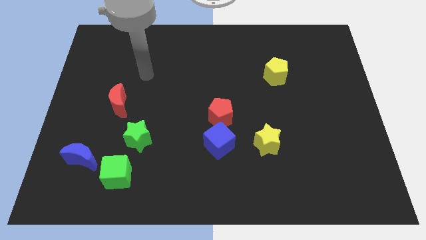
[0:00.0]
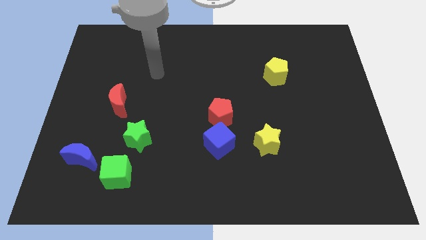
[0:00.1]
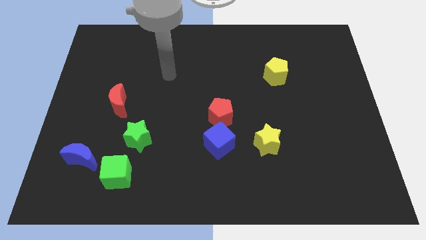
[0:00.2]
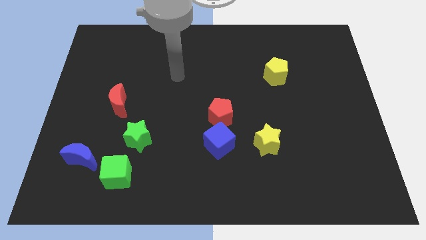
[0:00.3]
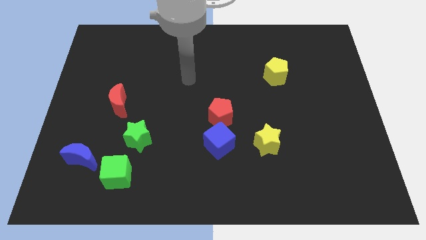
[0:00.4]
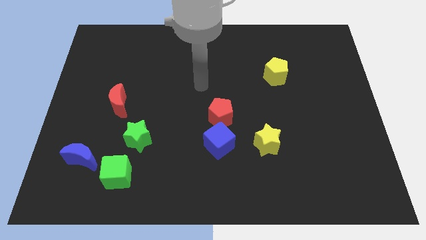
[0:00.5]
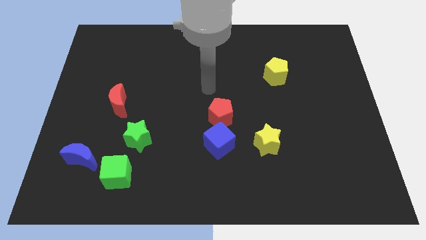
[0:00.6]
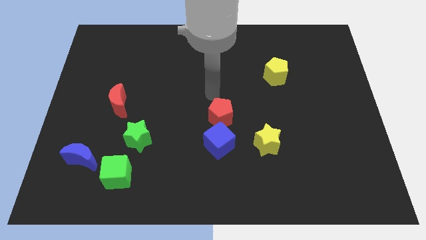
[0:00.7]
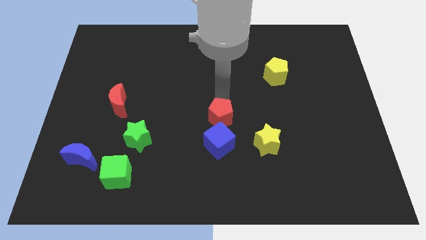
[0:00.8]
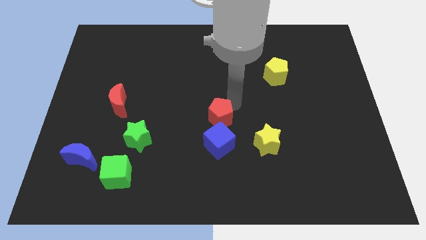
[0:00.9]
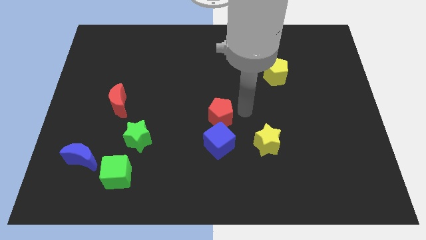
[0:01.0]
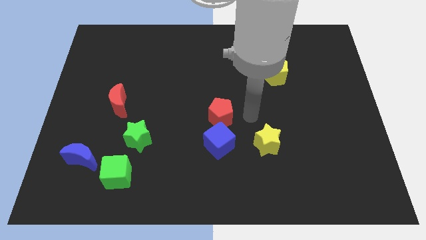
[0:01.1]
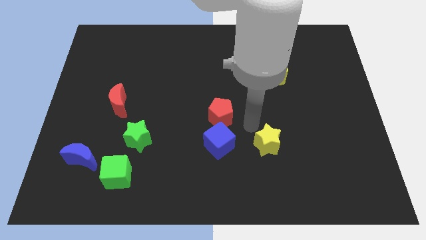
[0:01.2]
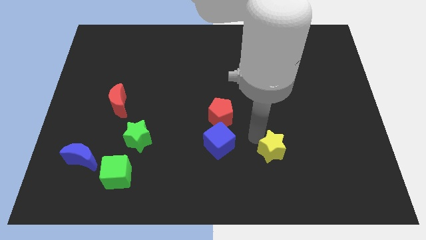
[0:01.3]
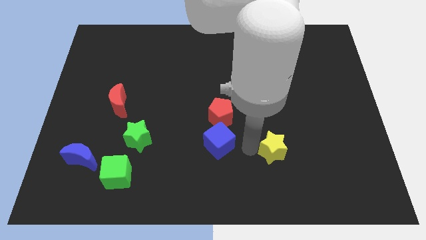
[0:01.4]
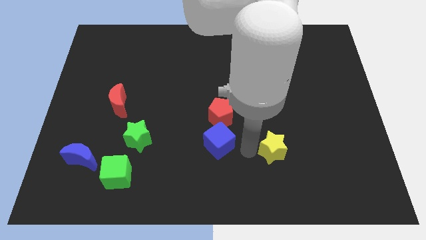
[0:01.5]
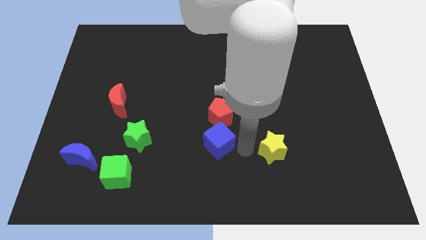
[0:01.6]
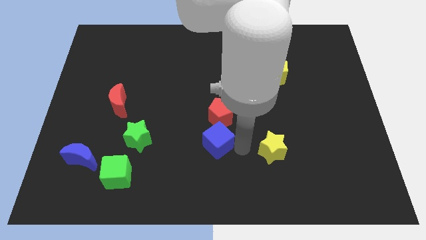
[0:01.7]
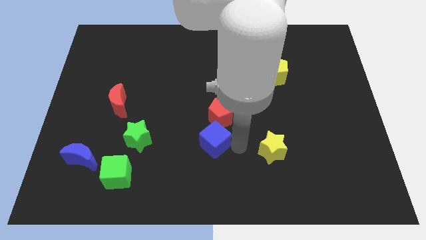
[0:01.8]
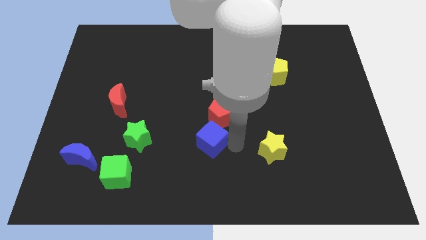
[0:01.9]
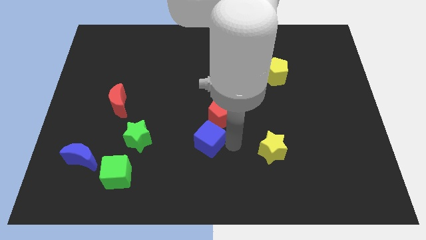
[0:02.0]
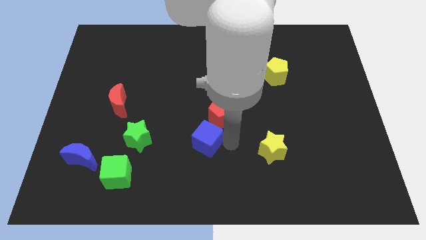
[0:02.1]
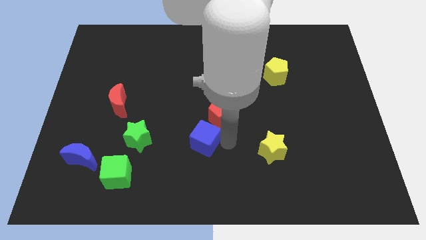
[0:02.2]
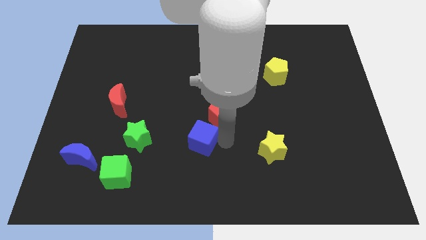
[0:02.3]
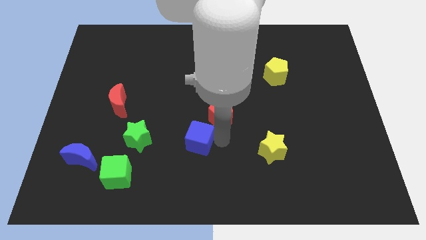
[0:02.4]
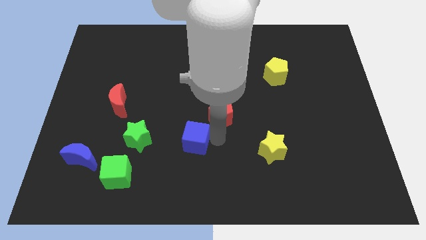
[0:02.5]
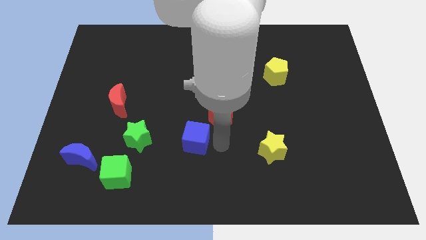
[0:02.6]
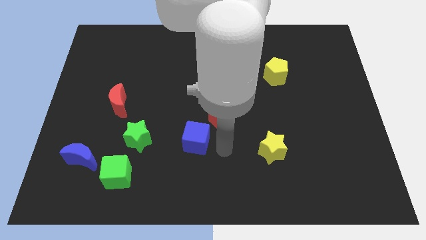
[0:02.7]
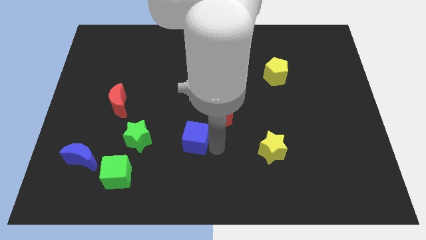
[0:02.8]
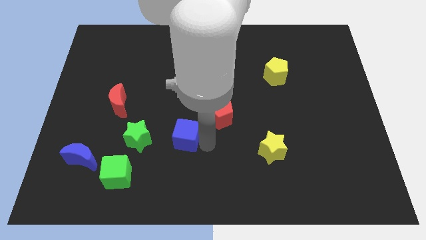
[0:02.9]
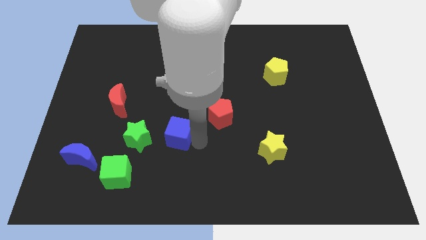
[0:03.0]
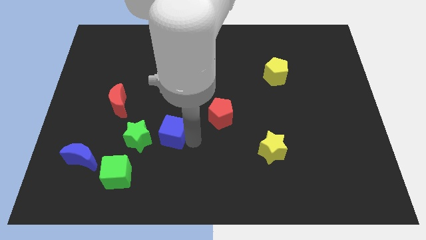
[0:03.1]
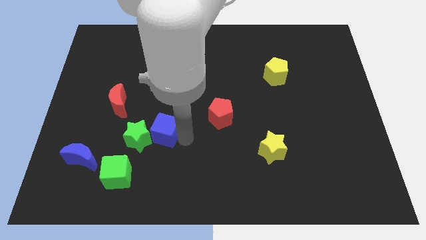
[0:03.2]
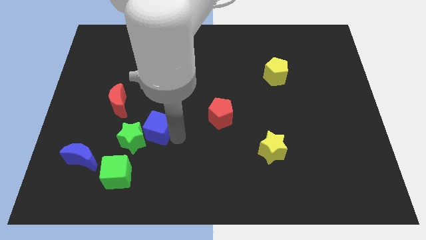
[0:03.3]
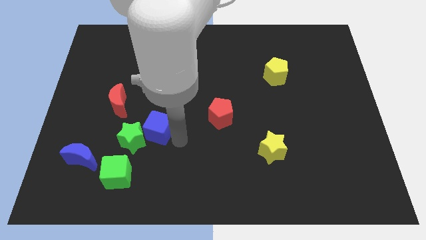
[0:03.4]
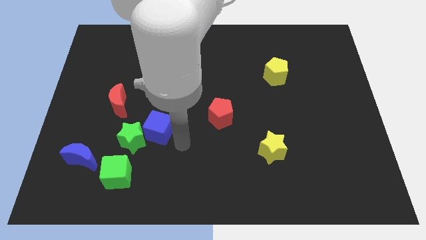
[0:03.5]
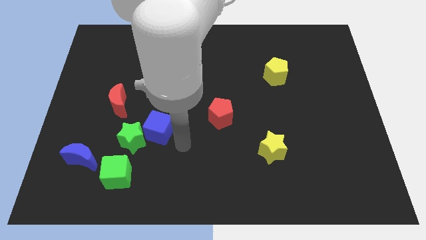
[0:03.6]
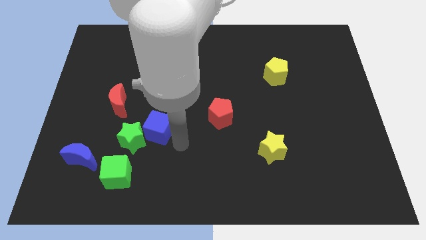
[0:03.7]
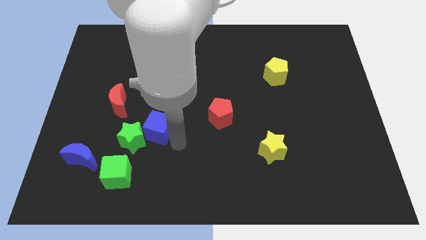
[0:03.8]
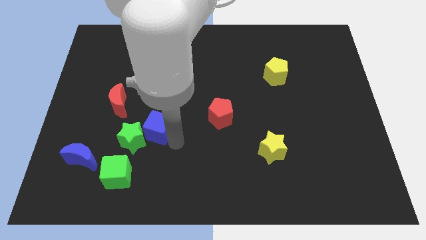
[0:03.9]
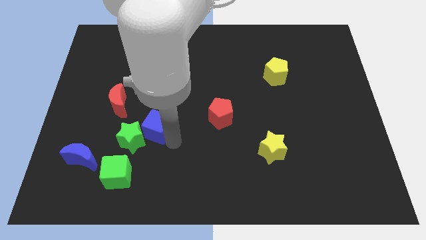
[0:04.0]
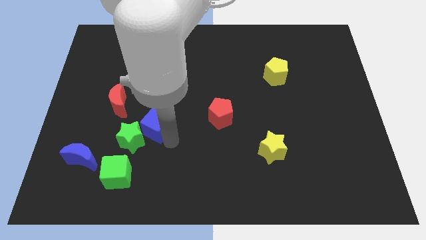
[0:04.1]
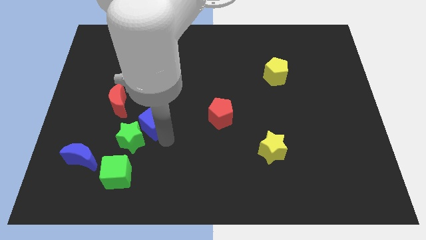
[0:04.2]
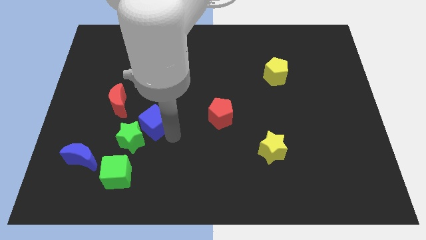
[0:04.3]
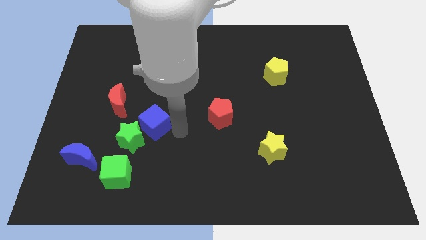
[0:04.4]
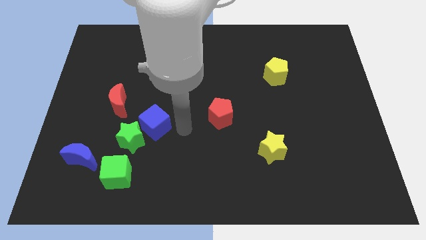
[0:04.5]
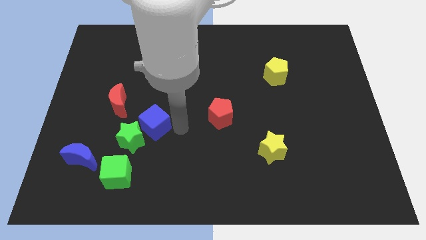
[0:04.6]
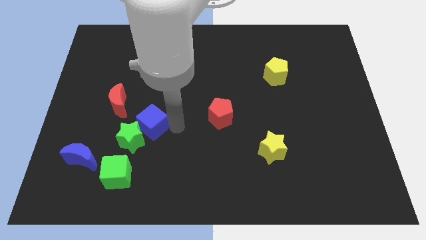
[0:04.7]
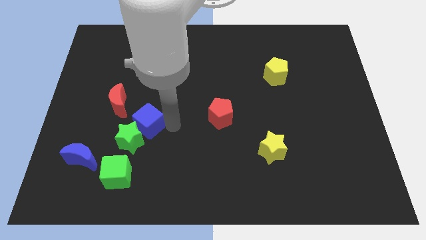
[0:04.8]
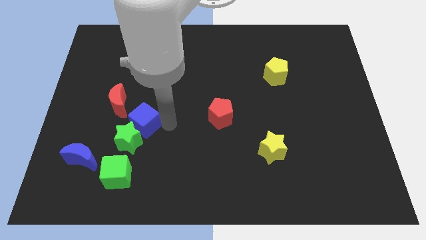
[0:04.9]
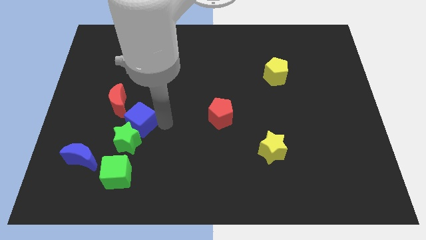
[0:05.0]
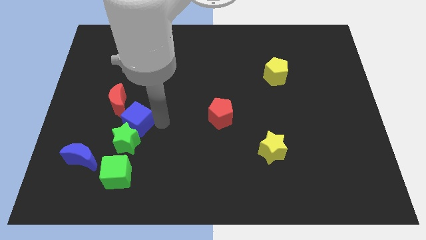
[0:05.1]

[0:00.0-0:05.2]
move the blue cube to the top left side of the green star

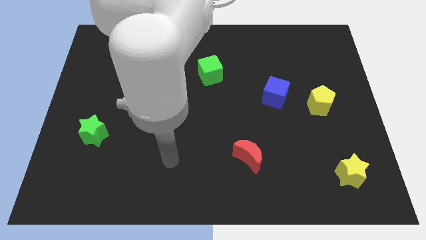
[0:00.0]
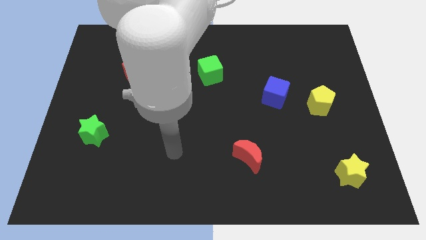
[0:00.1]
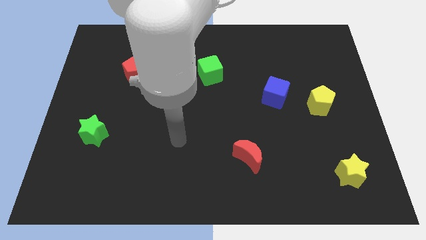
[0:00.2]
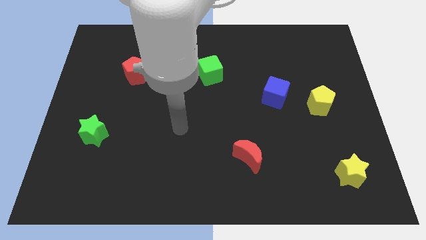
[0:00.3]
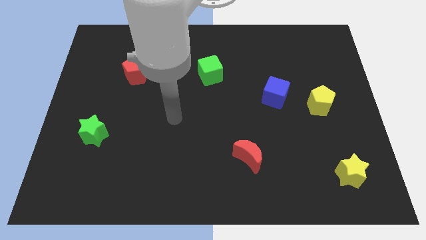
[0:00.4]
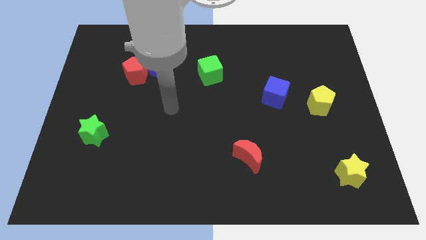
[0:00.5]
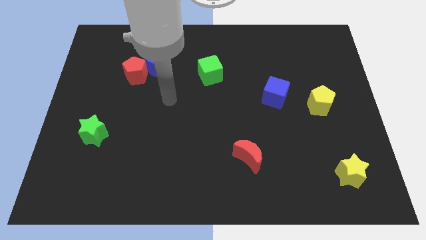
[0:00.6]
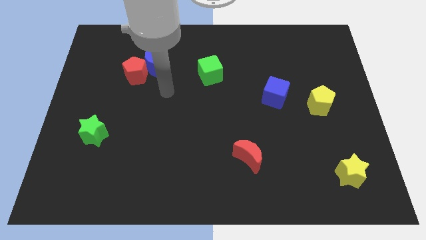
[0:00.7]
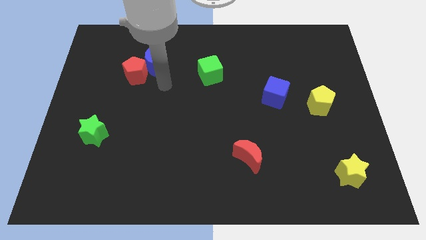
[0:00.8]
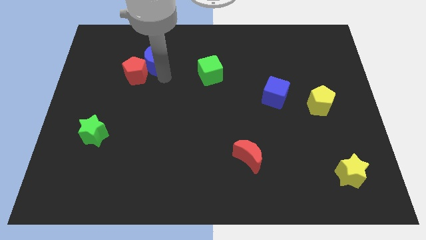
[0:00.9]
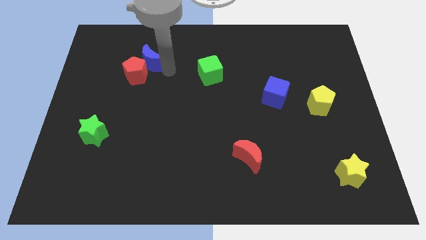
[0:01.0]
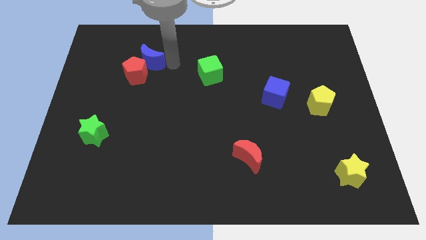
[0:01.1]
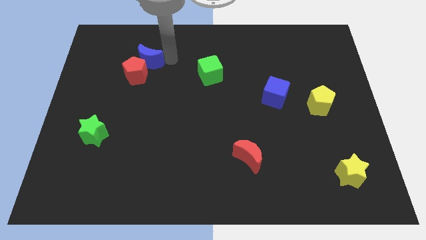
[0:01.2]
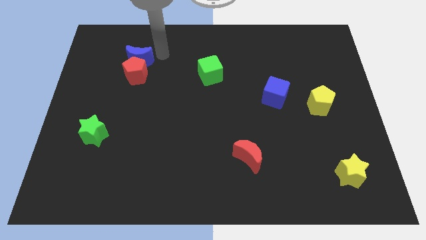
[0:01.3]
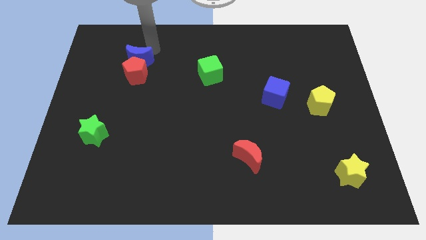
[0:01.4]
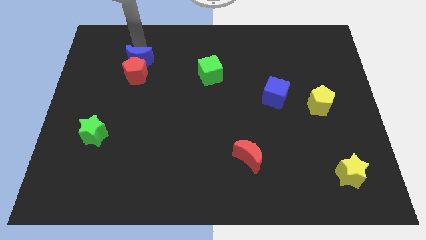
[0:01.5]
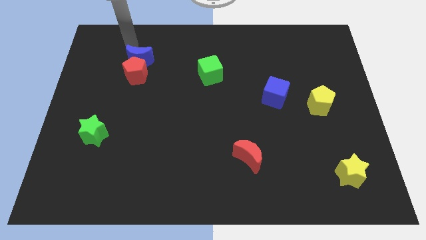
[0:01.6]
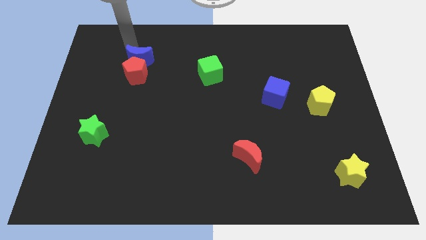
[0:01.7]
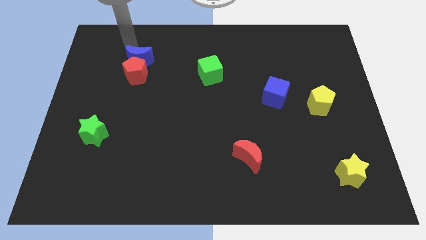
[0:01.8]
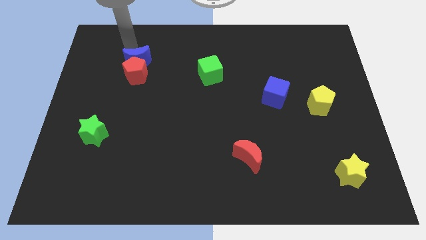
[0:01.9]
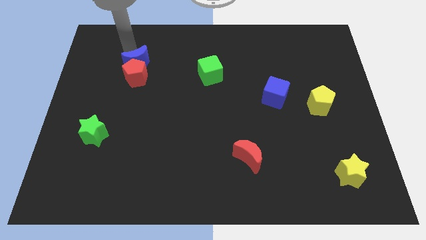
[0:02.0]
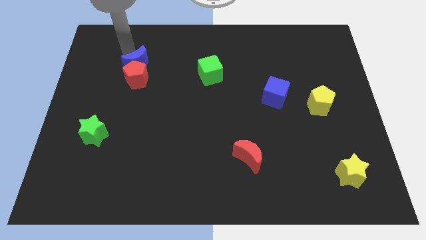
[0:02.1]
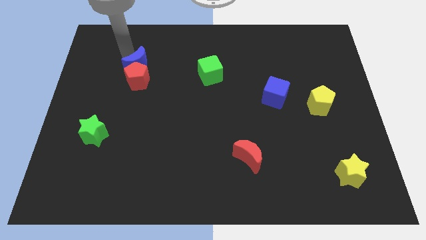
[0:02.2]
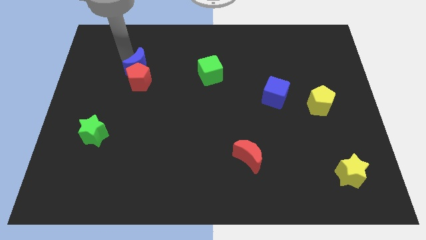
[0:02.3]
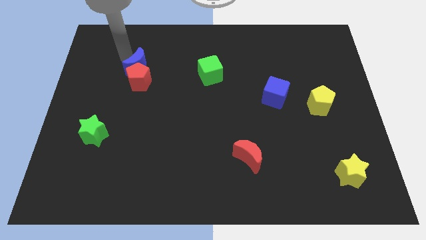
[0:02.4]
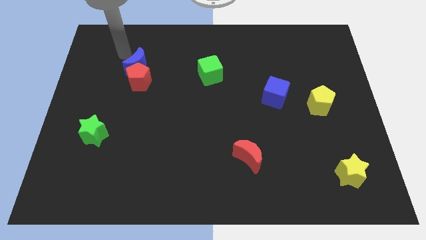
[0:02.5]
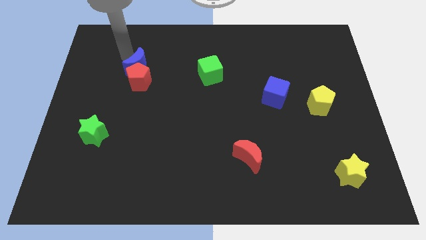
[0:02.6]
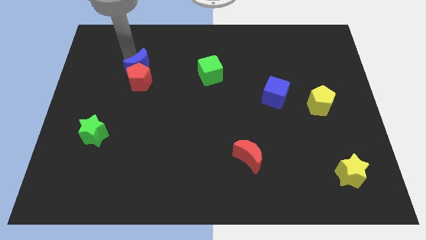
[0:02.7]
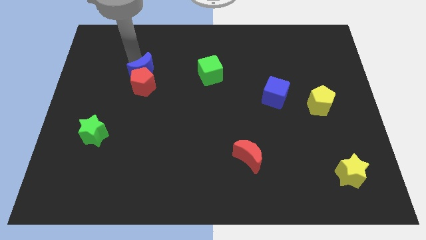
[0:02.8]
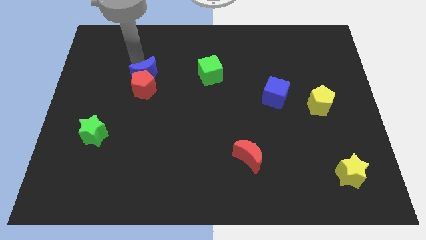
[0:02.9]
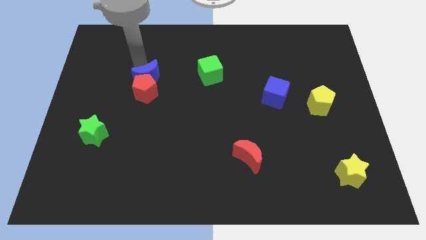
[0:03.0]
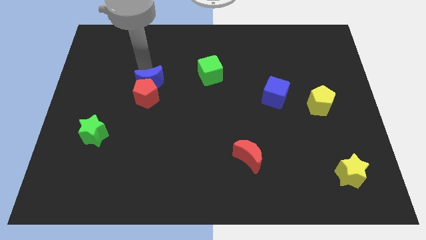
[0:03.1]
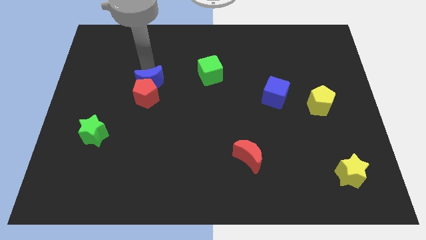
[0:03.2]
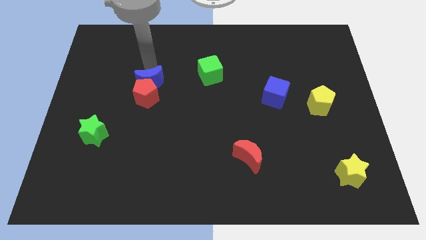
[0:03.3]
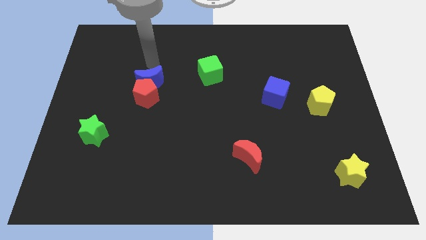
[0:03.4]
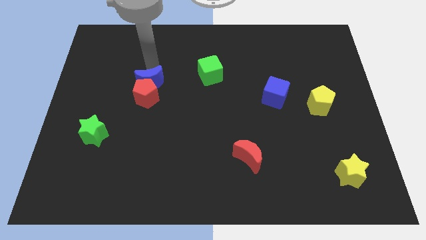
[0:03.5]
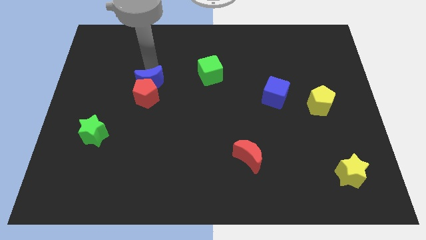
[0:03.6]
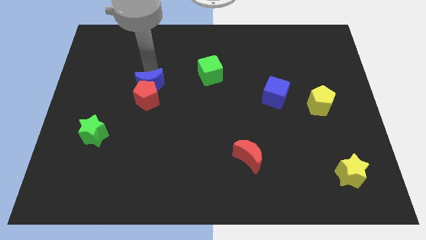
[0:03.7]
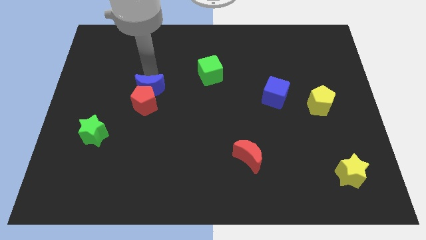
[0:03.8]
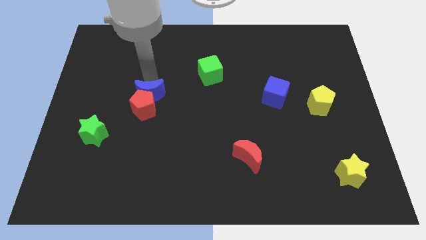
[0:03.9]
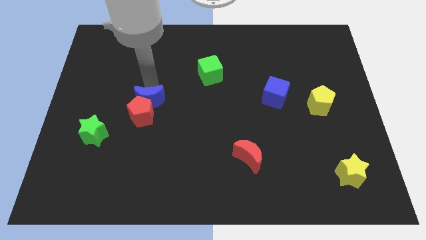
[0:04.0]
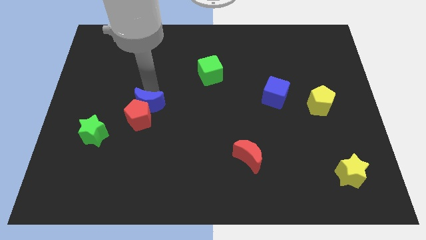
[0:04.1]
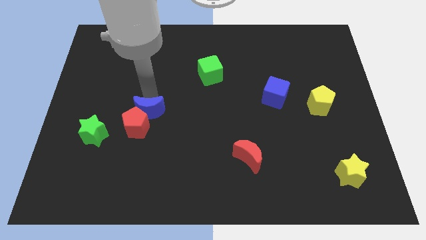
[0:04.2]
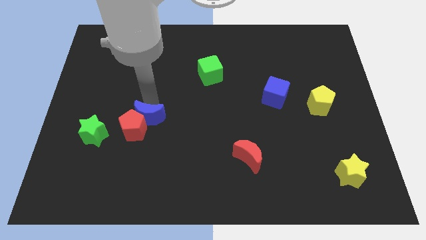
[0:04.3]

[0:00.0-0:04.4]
push the blue moon to the right of the green star
